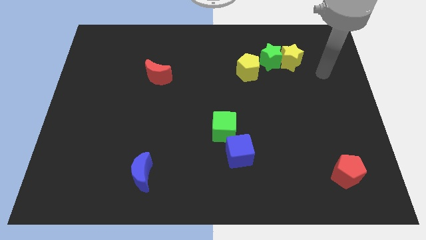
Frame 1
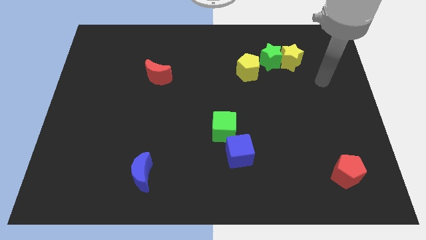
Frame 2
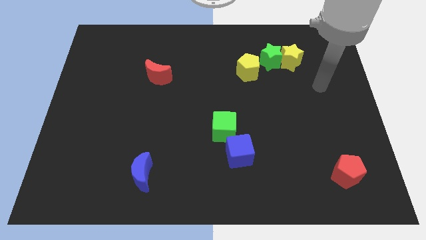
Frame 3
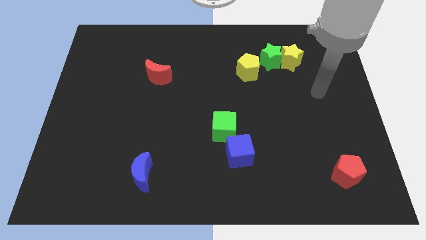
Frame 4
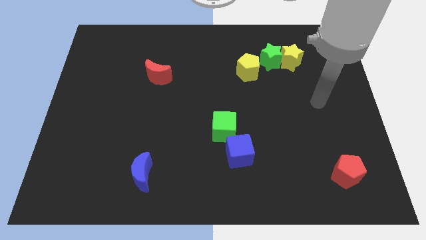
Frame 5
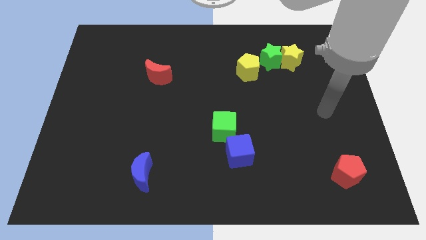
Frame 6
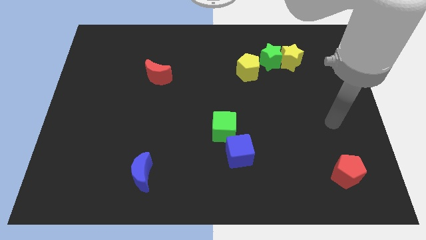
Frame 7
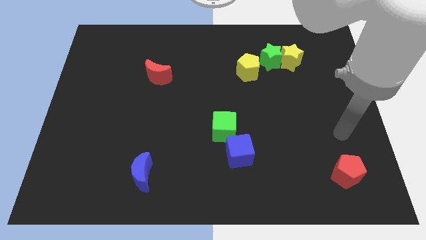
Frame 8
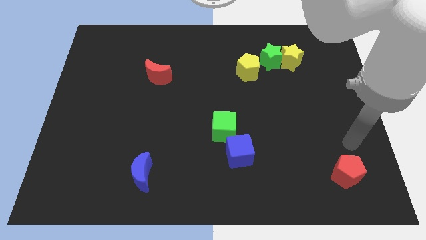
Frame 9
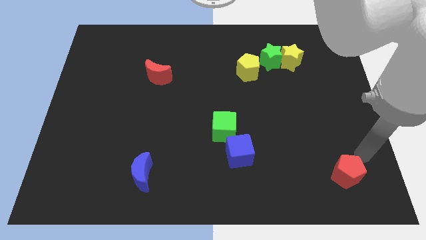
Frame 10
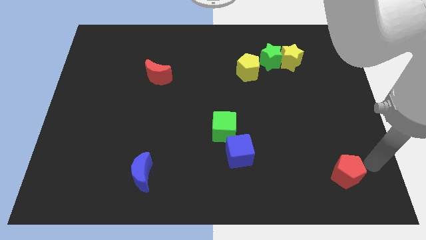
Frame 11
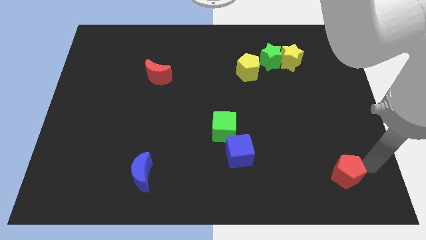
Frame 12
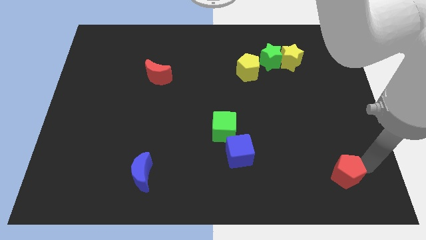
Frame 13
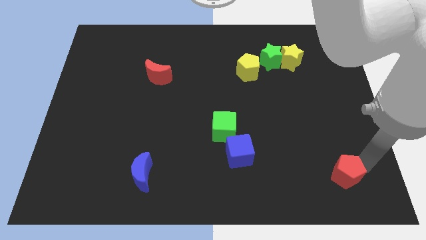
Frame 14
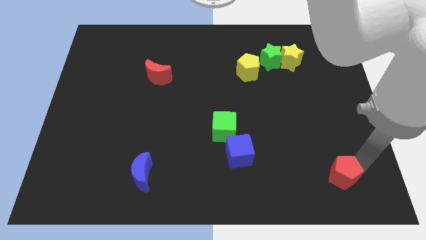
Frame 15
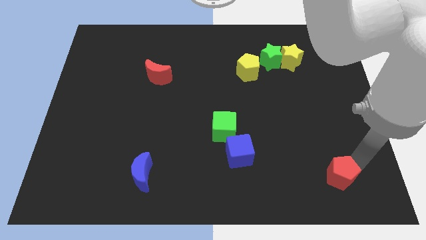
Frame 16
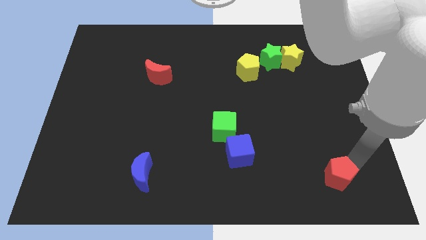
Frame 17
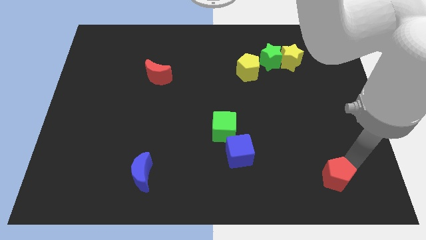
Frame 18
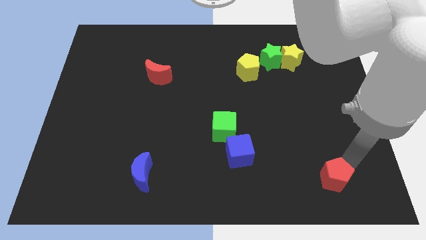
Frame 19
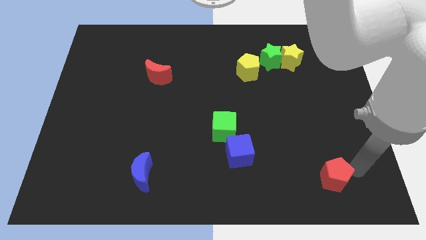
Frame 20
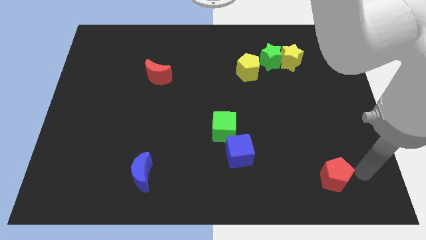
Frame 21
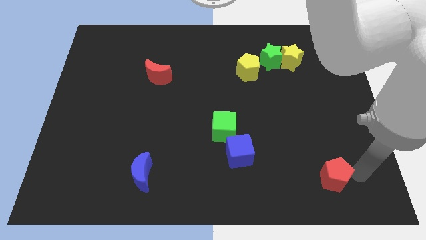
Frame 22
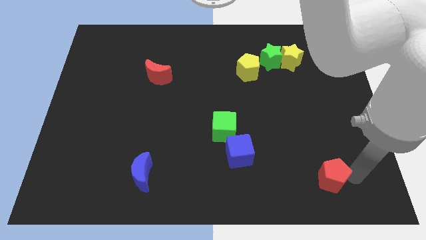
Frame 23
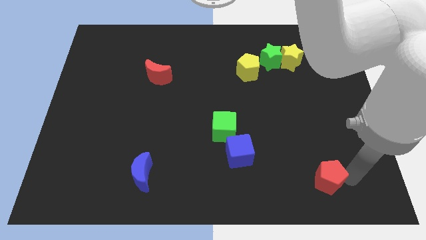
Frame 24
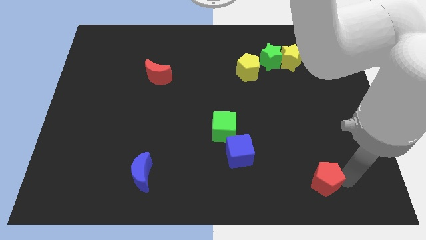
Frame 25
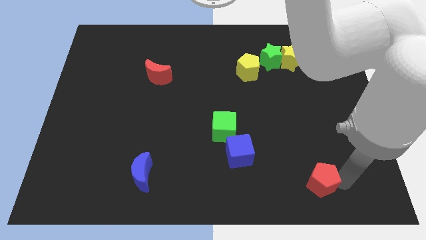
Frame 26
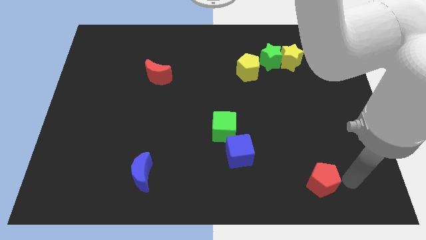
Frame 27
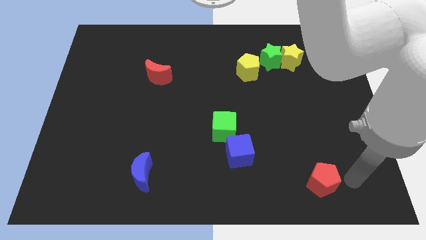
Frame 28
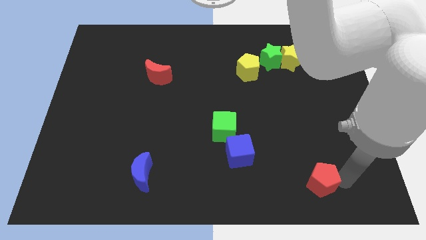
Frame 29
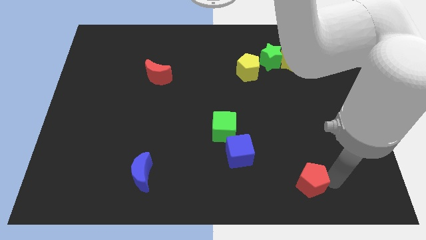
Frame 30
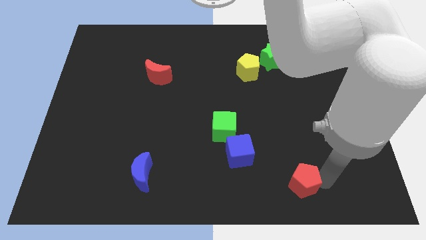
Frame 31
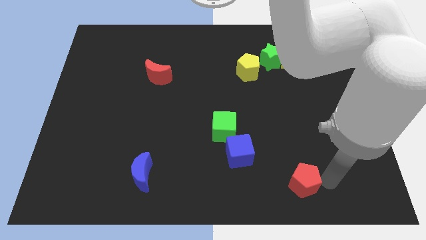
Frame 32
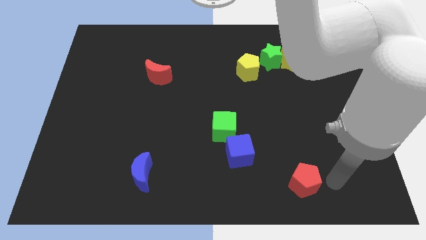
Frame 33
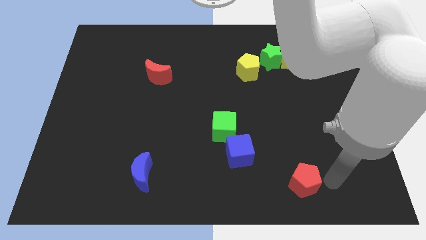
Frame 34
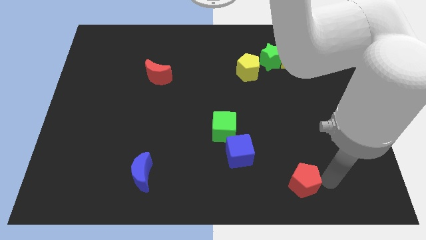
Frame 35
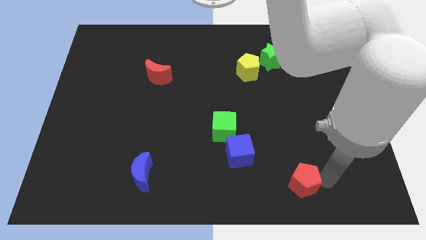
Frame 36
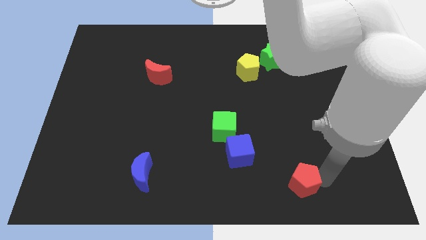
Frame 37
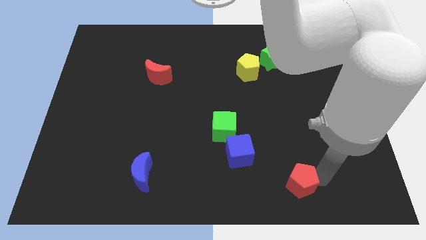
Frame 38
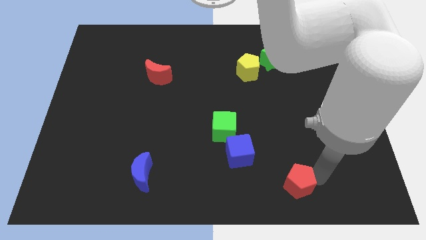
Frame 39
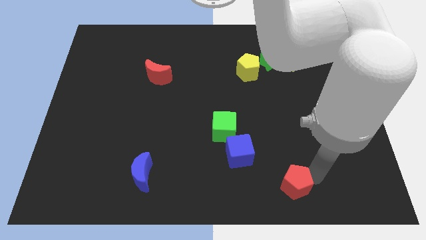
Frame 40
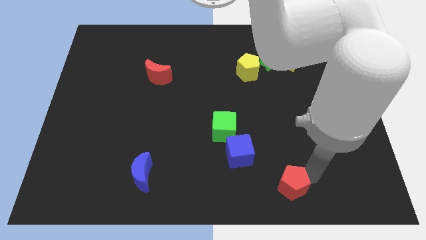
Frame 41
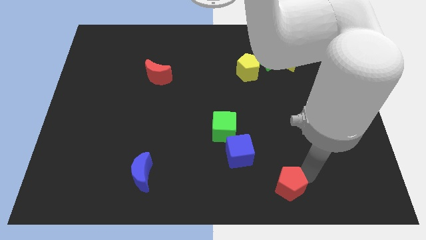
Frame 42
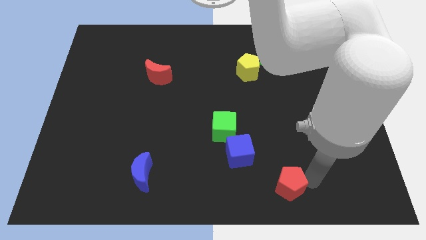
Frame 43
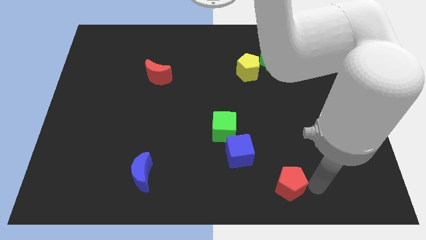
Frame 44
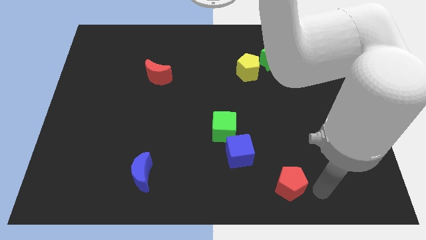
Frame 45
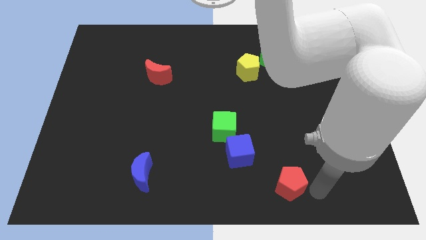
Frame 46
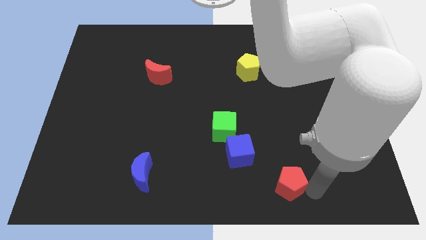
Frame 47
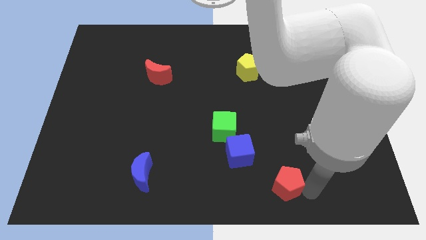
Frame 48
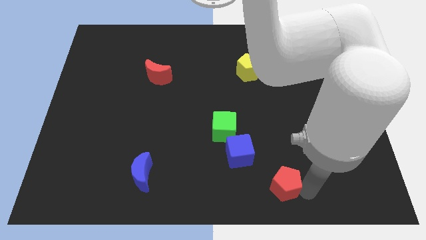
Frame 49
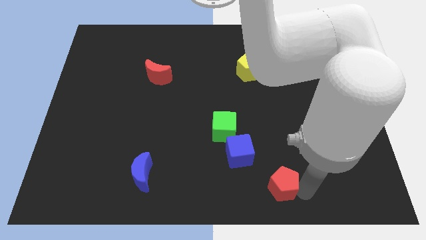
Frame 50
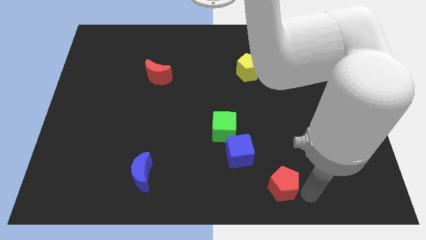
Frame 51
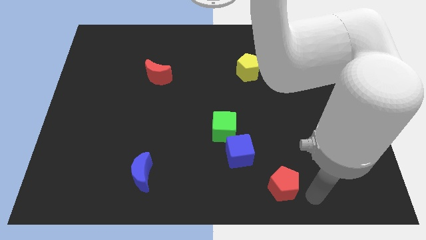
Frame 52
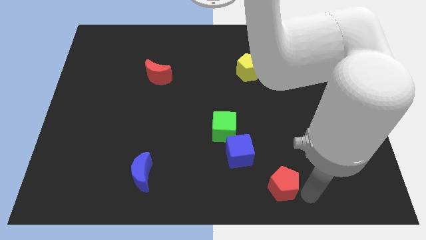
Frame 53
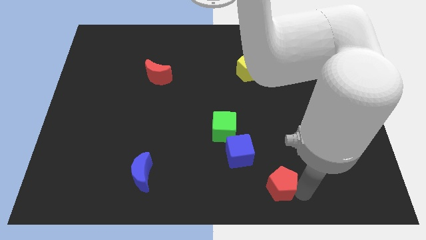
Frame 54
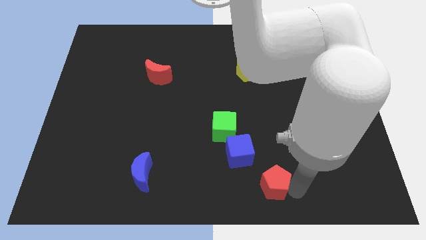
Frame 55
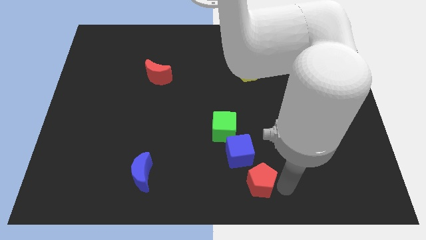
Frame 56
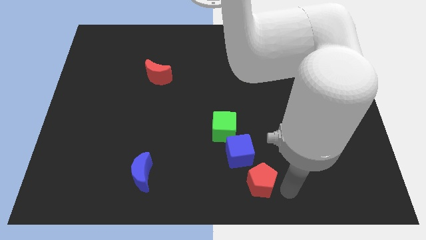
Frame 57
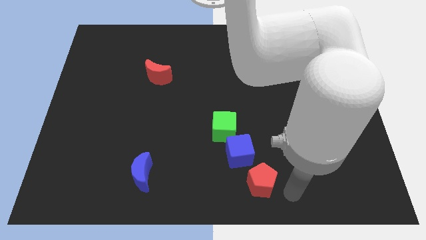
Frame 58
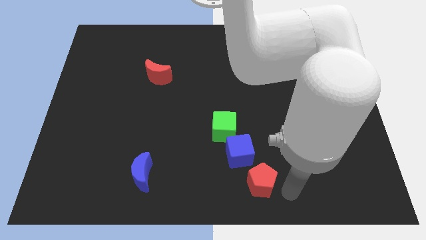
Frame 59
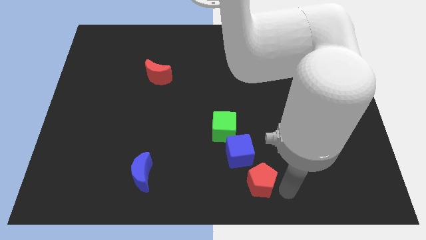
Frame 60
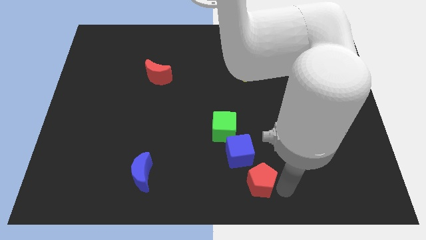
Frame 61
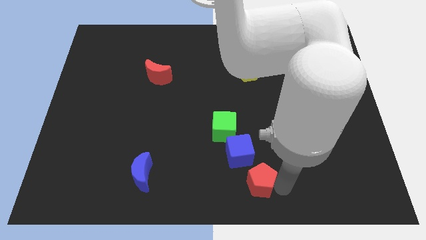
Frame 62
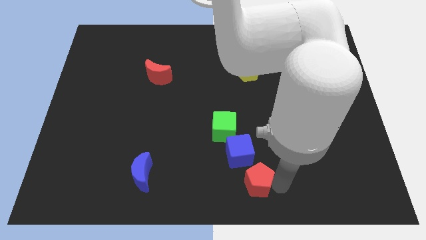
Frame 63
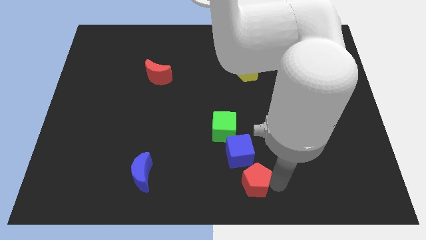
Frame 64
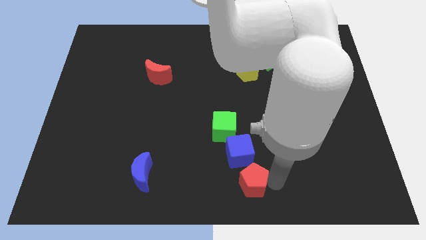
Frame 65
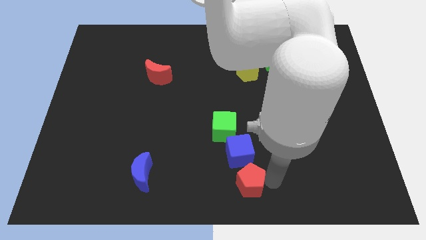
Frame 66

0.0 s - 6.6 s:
push the red pentagon left

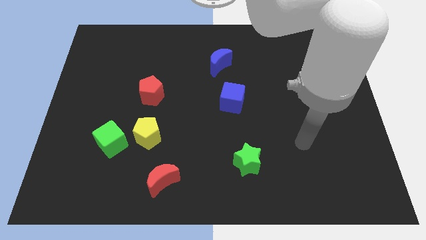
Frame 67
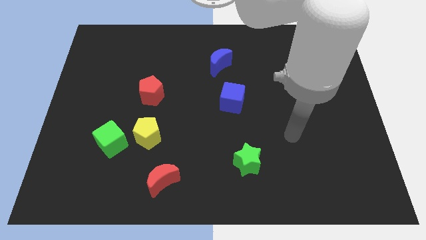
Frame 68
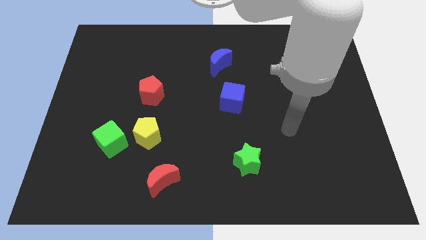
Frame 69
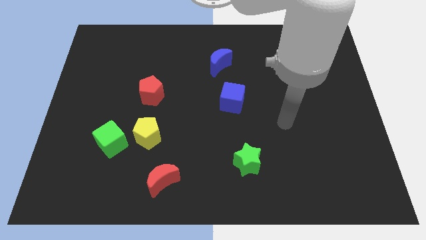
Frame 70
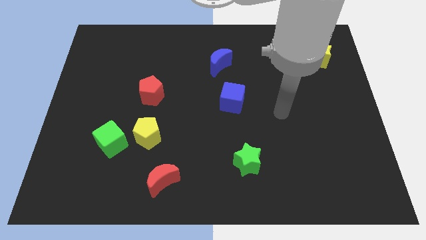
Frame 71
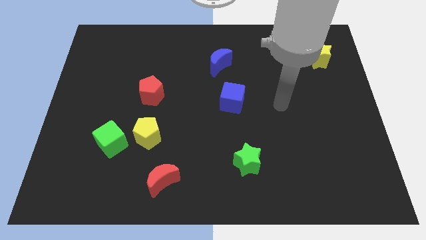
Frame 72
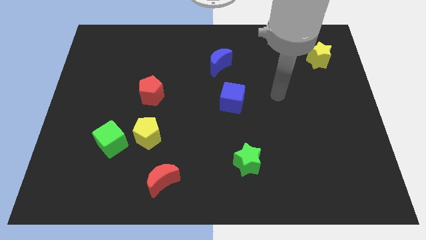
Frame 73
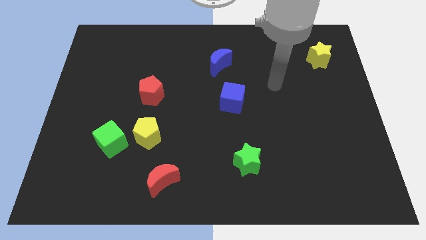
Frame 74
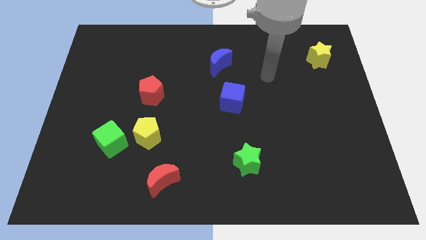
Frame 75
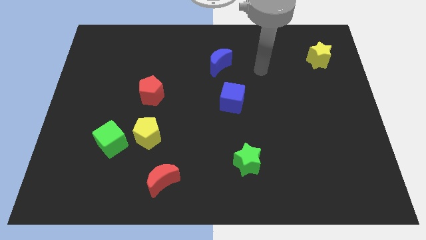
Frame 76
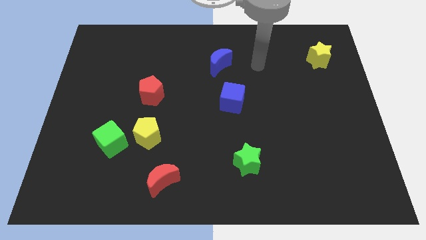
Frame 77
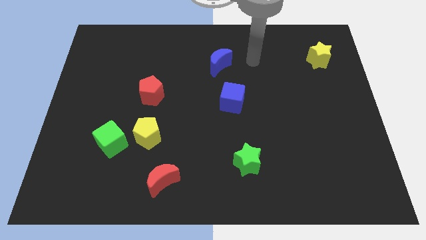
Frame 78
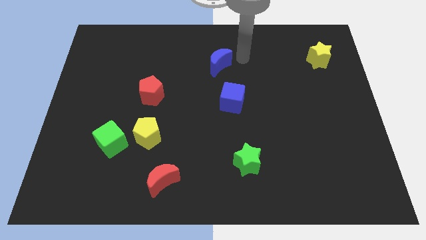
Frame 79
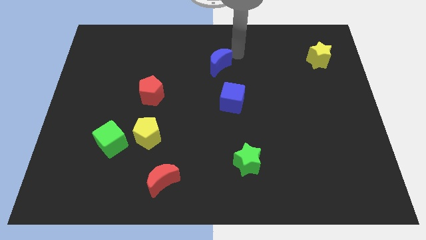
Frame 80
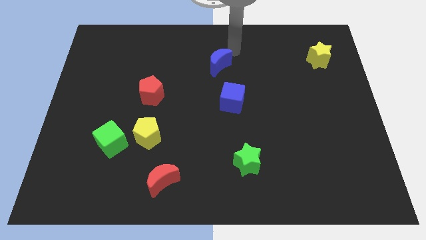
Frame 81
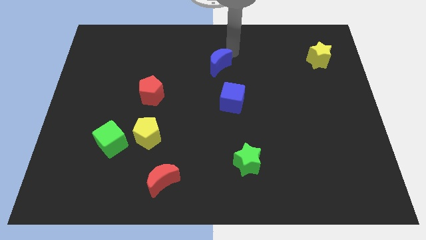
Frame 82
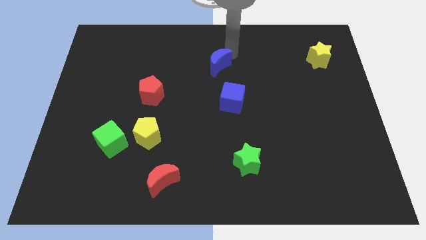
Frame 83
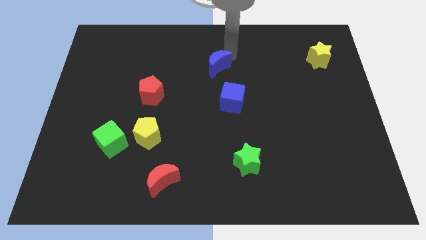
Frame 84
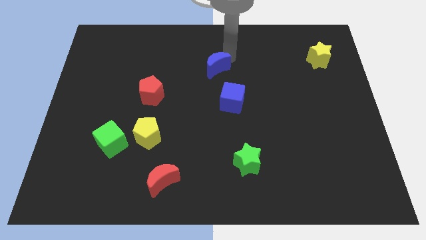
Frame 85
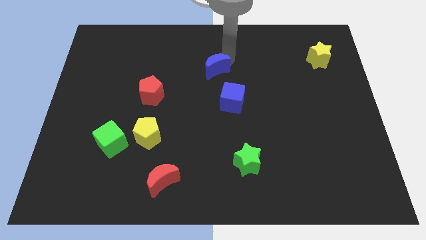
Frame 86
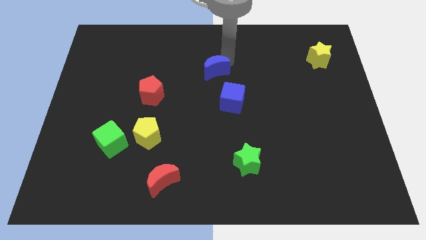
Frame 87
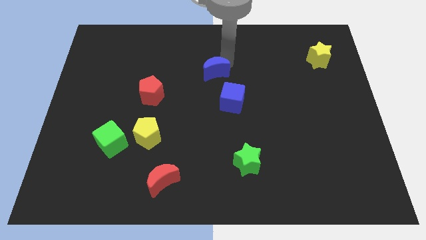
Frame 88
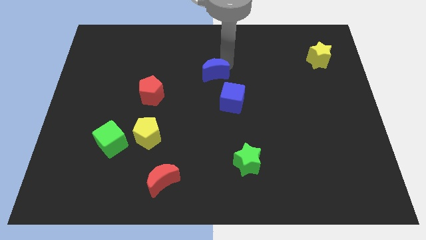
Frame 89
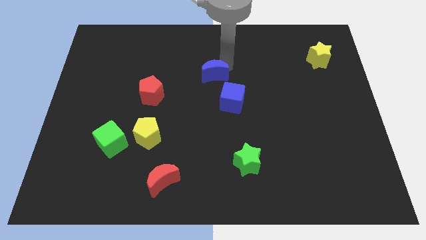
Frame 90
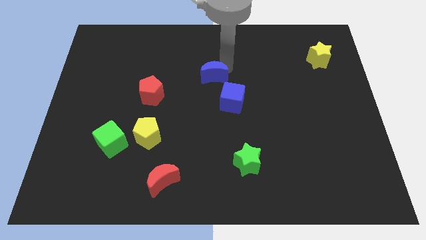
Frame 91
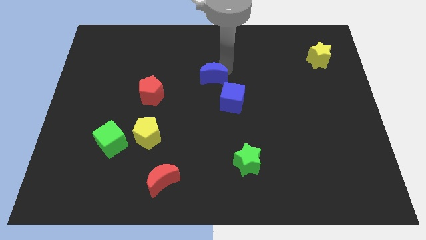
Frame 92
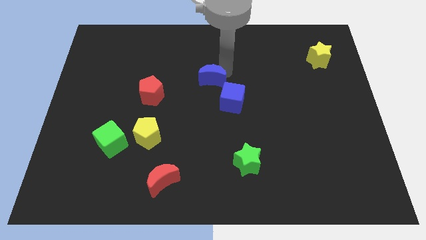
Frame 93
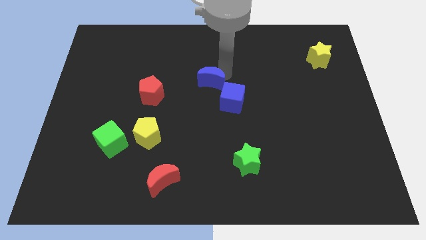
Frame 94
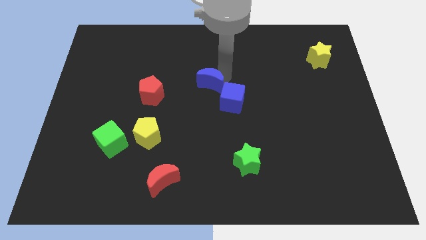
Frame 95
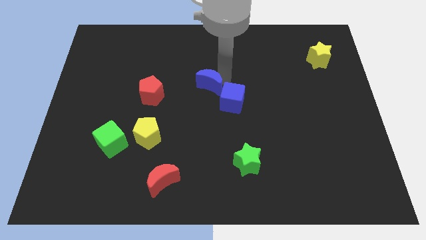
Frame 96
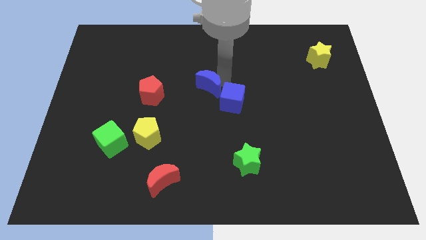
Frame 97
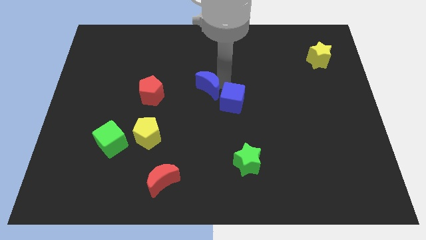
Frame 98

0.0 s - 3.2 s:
move the blue moon diagonally down and left slightly
